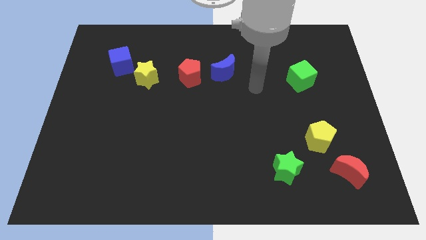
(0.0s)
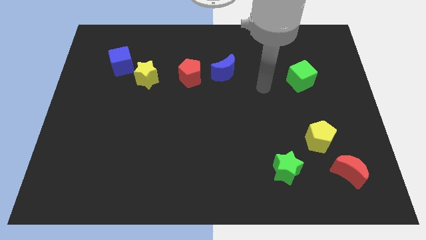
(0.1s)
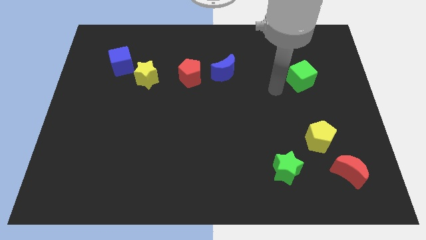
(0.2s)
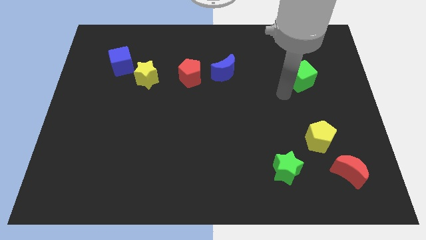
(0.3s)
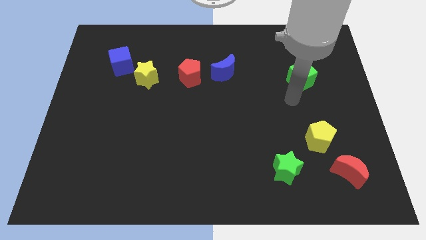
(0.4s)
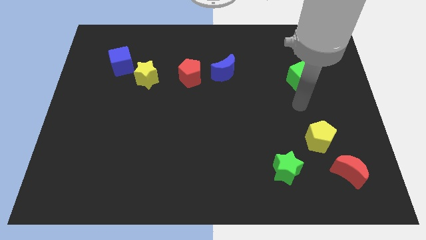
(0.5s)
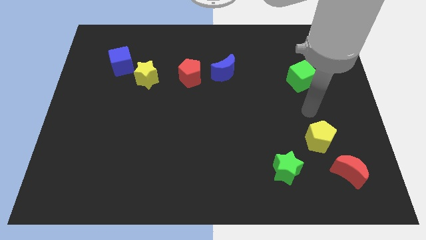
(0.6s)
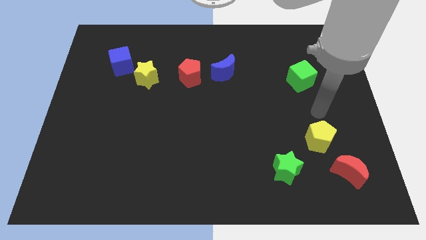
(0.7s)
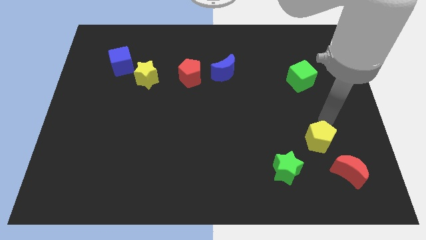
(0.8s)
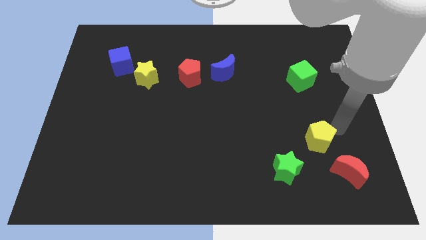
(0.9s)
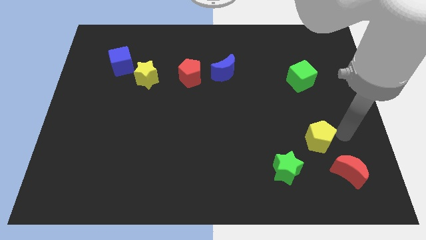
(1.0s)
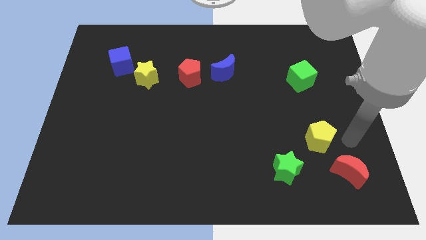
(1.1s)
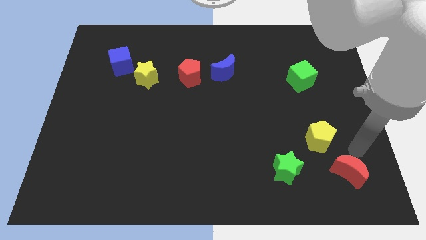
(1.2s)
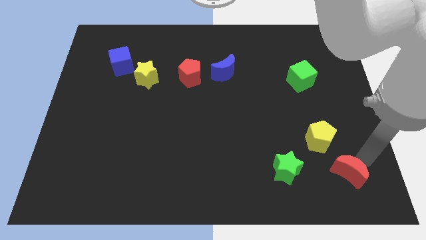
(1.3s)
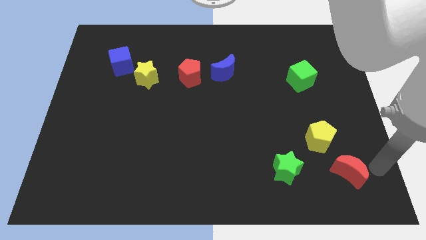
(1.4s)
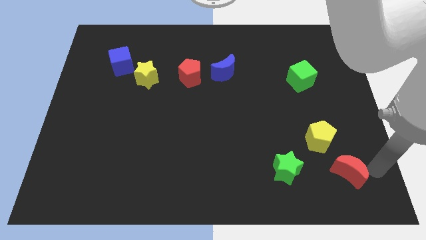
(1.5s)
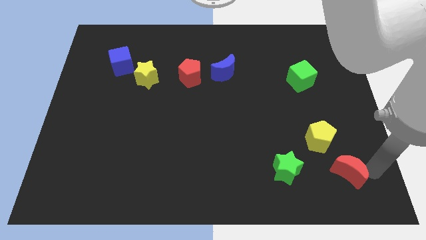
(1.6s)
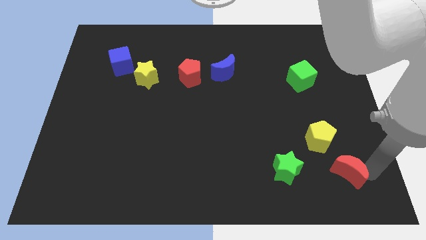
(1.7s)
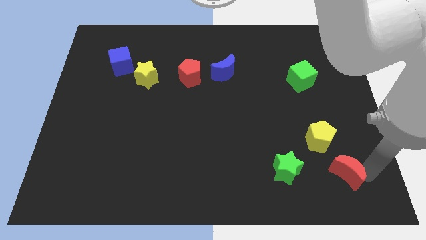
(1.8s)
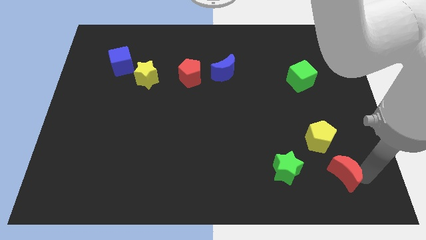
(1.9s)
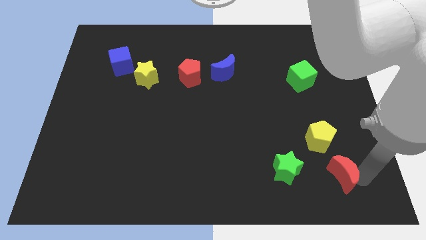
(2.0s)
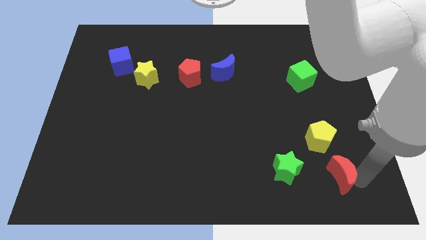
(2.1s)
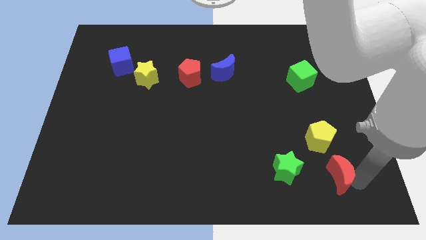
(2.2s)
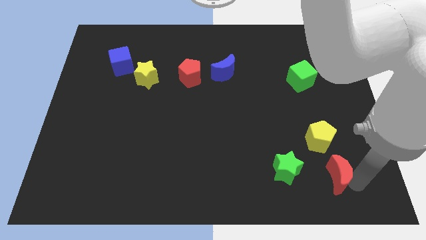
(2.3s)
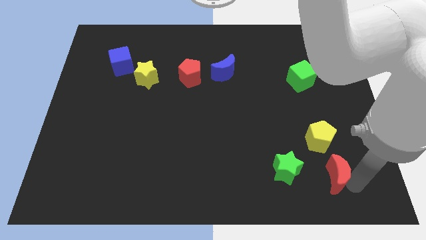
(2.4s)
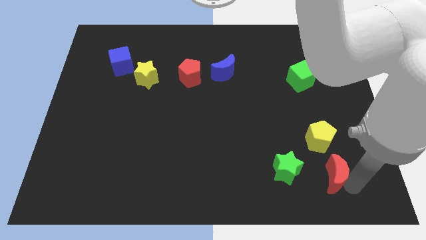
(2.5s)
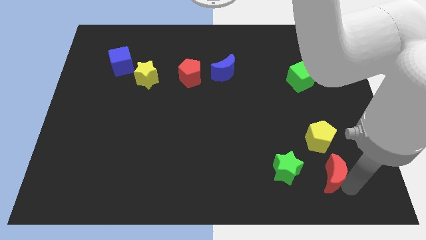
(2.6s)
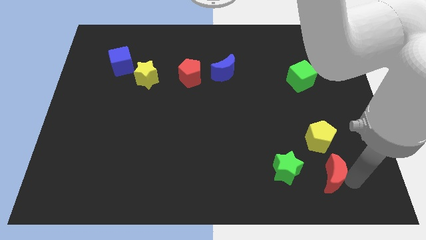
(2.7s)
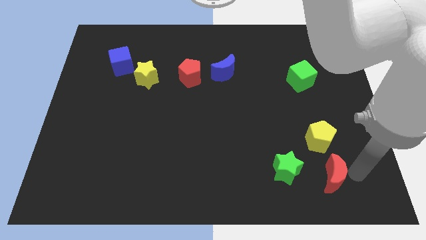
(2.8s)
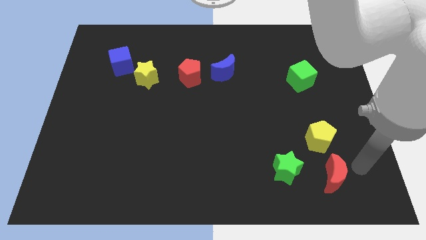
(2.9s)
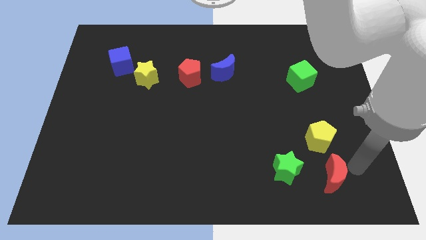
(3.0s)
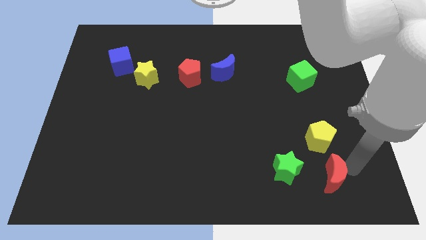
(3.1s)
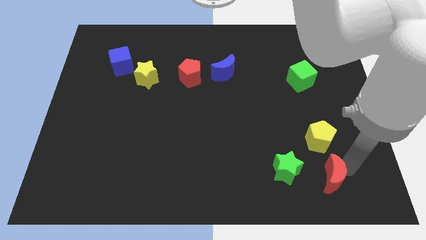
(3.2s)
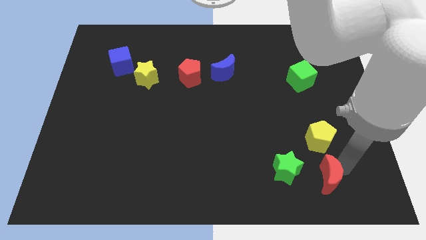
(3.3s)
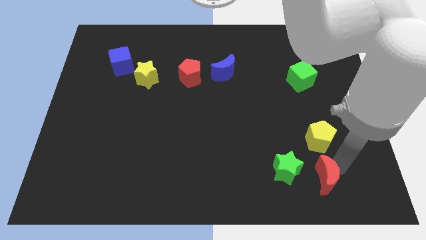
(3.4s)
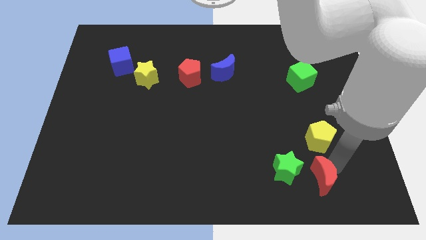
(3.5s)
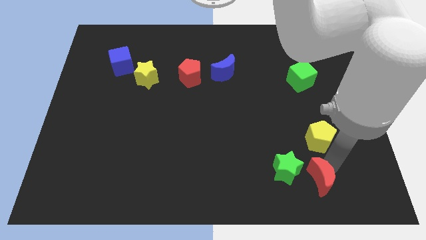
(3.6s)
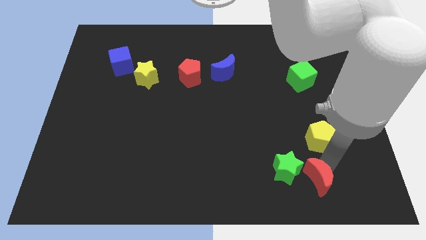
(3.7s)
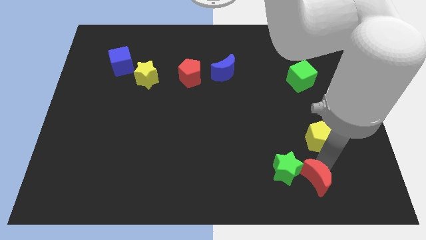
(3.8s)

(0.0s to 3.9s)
push the red moon left a little bit

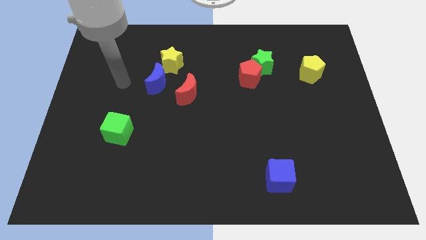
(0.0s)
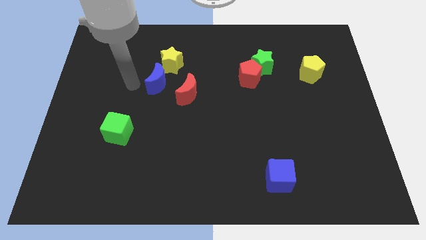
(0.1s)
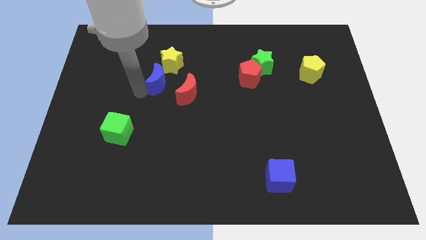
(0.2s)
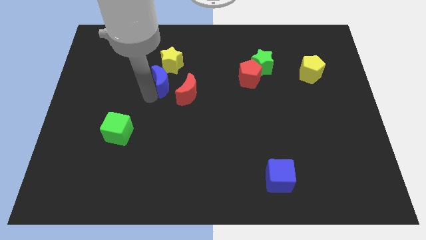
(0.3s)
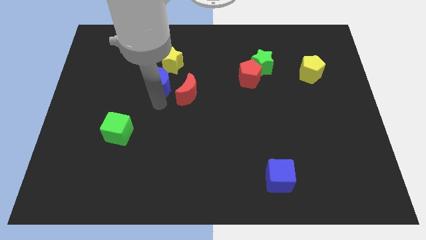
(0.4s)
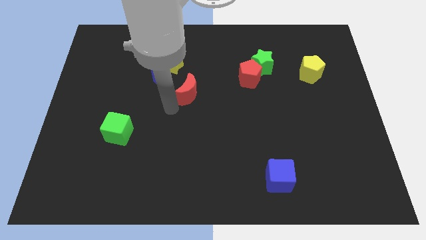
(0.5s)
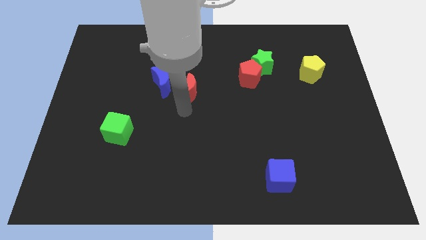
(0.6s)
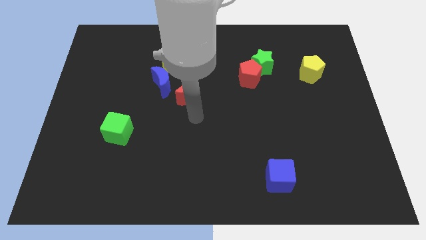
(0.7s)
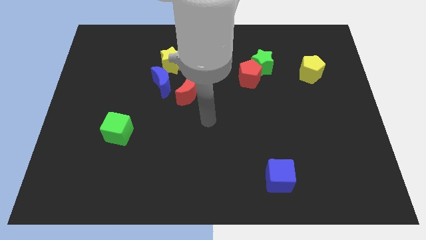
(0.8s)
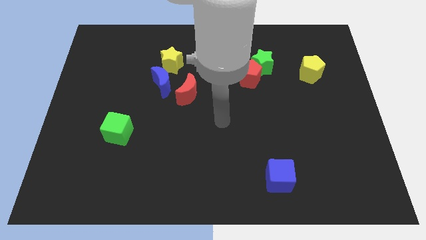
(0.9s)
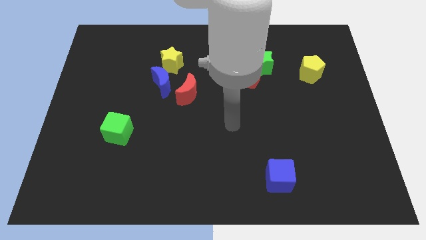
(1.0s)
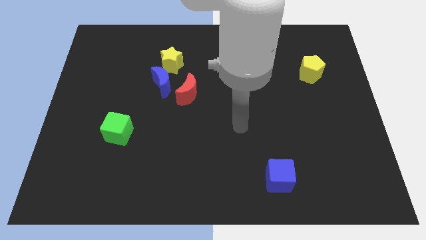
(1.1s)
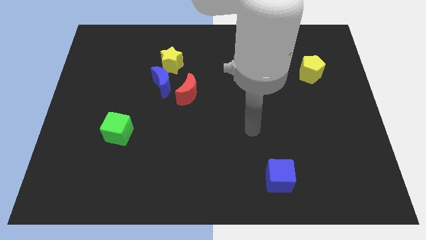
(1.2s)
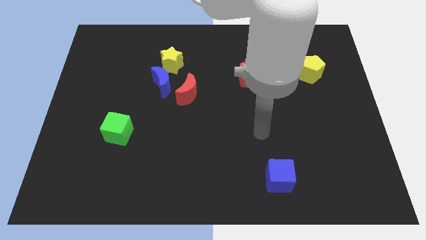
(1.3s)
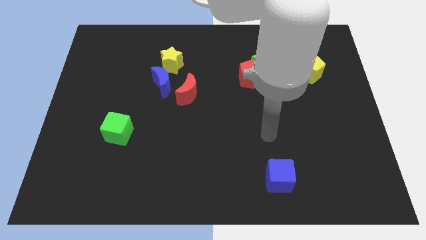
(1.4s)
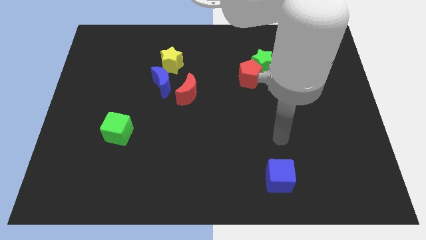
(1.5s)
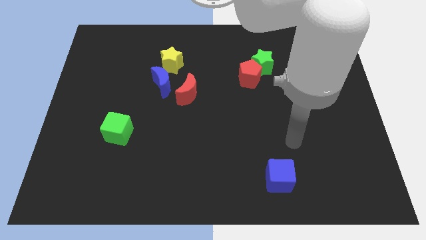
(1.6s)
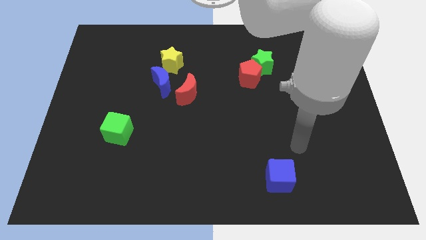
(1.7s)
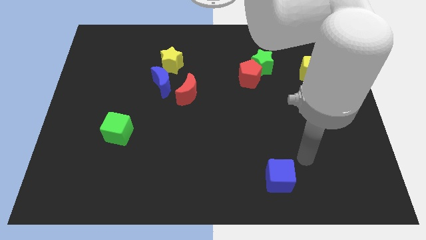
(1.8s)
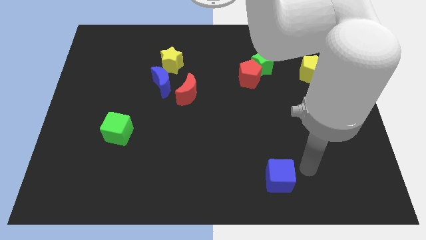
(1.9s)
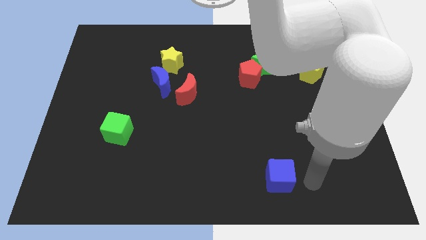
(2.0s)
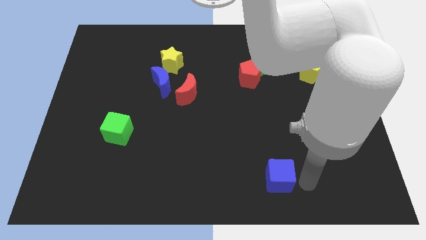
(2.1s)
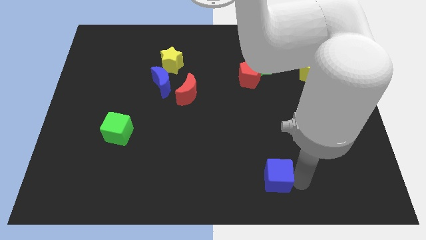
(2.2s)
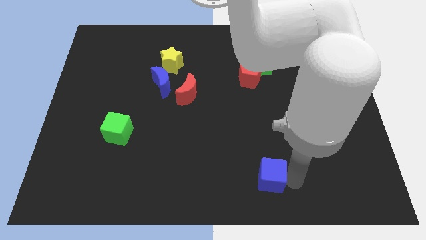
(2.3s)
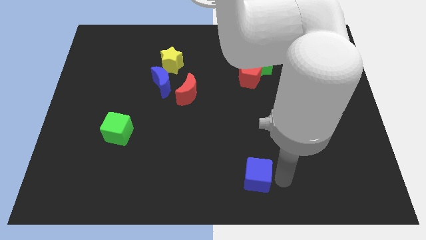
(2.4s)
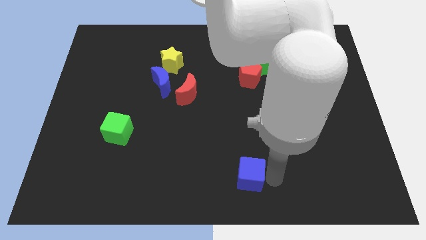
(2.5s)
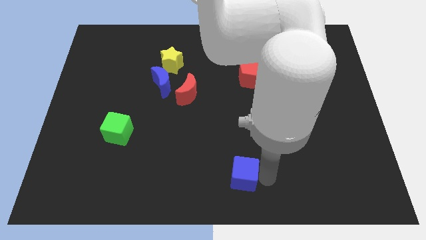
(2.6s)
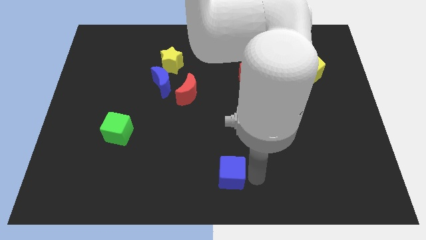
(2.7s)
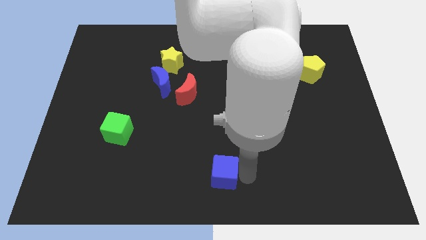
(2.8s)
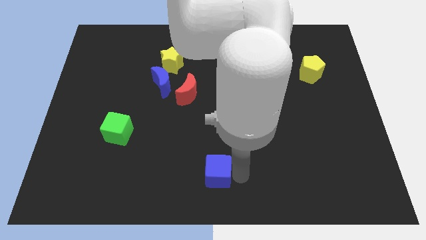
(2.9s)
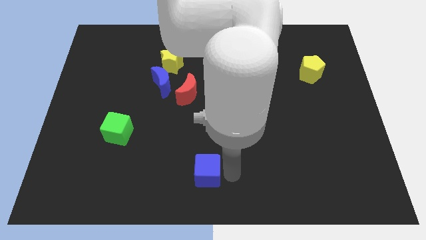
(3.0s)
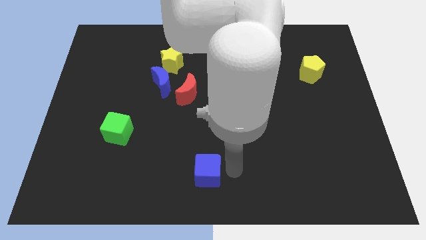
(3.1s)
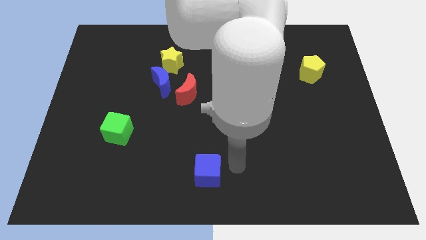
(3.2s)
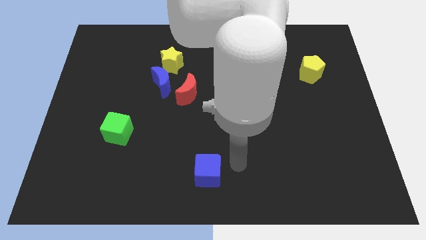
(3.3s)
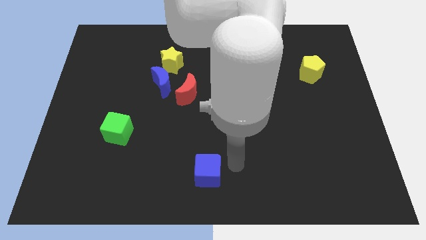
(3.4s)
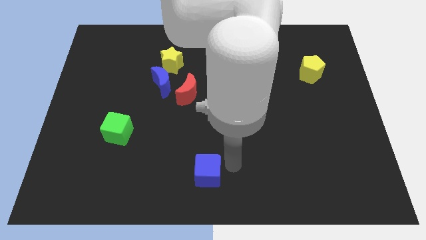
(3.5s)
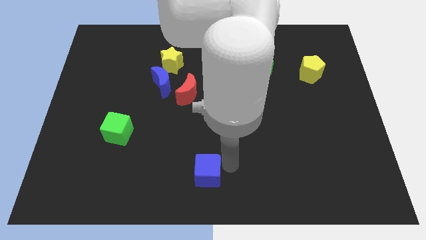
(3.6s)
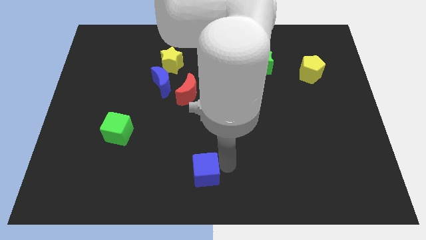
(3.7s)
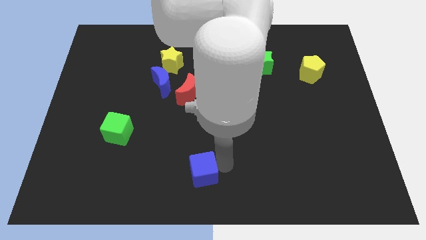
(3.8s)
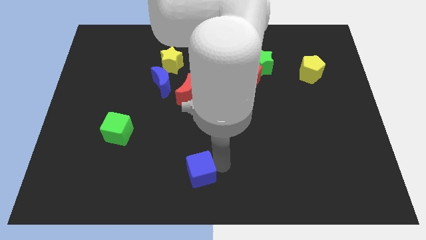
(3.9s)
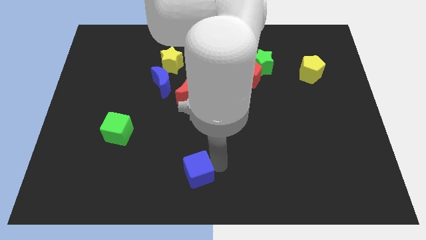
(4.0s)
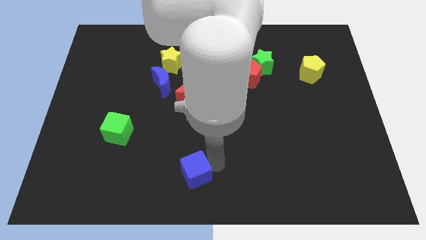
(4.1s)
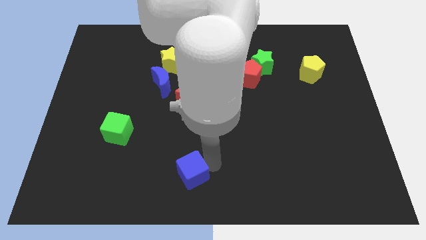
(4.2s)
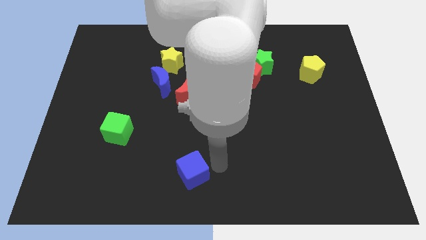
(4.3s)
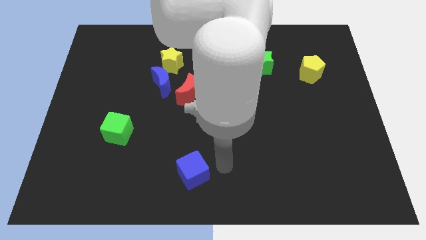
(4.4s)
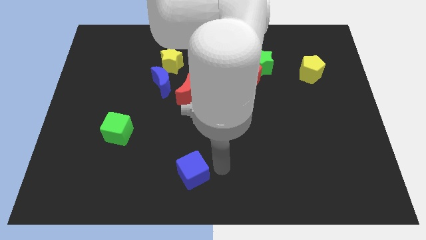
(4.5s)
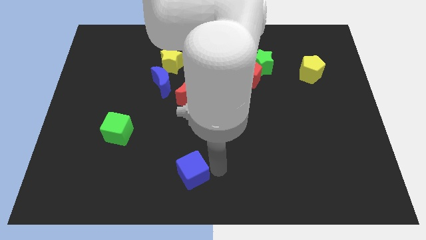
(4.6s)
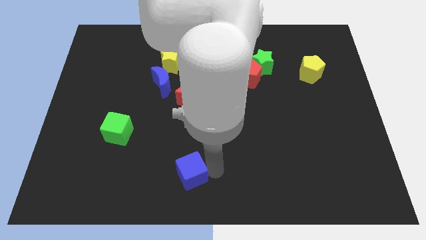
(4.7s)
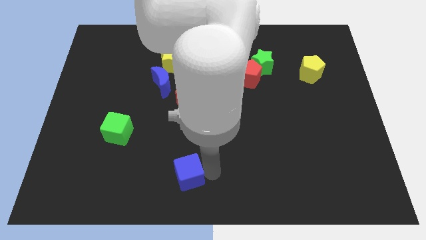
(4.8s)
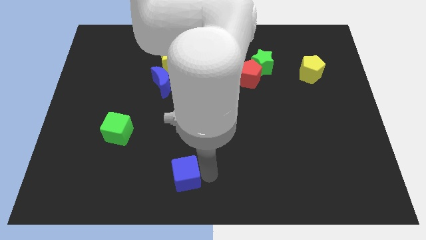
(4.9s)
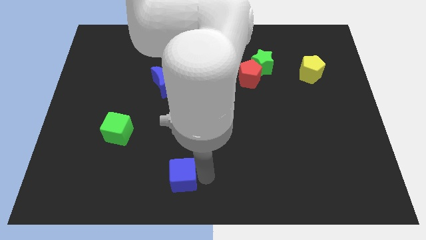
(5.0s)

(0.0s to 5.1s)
move the blue cube left
